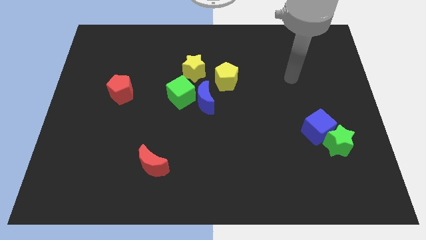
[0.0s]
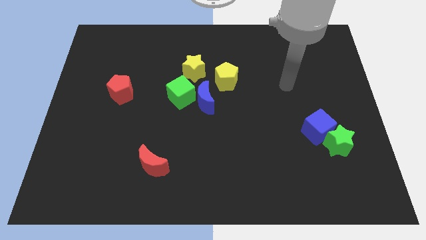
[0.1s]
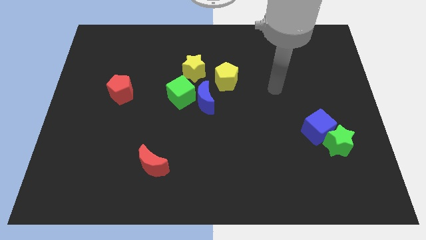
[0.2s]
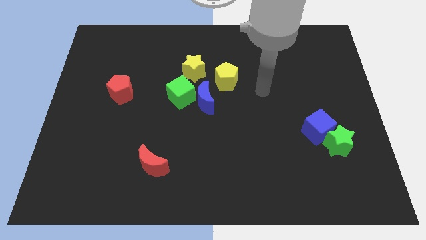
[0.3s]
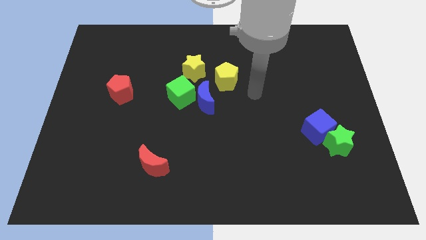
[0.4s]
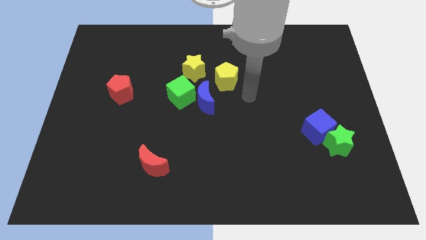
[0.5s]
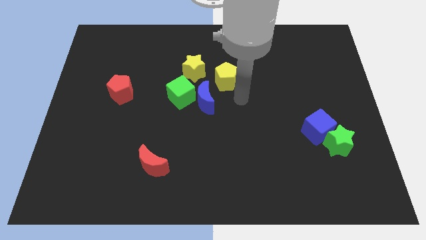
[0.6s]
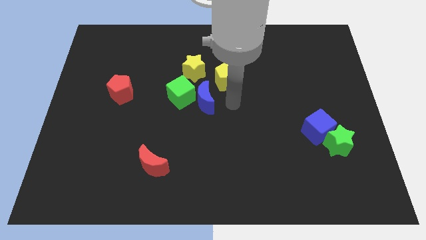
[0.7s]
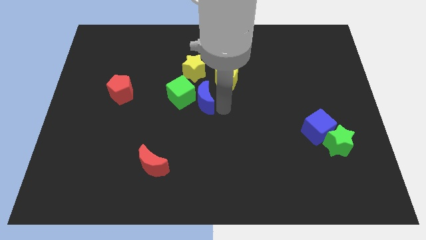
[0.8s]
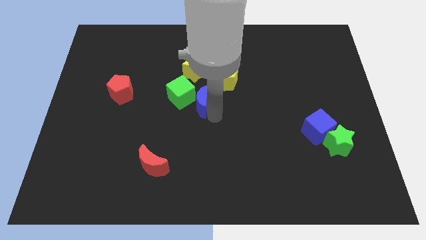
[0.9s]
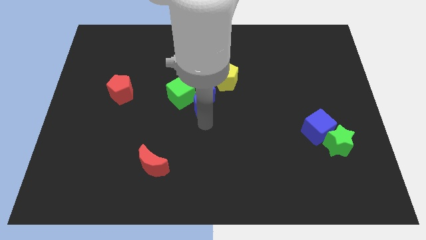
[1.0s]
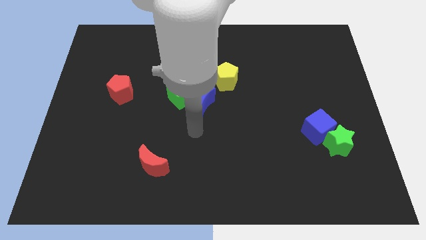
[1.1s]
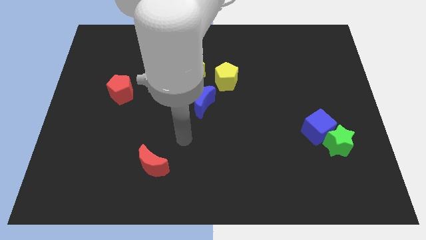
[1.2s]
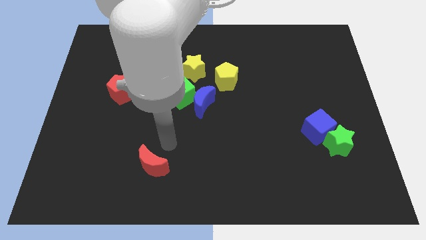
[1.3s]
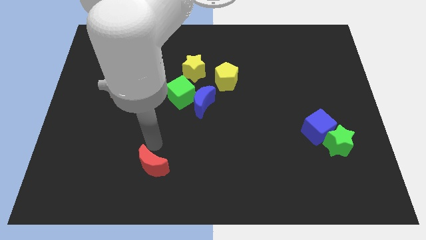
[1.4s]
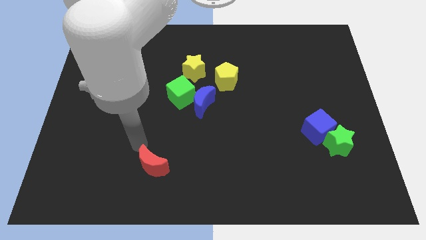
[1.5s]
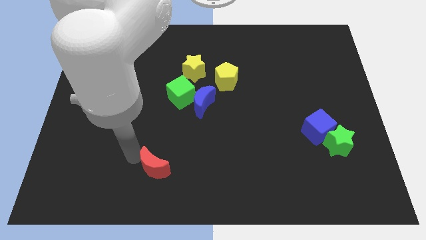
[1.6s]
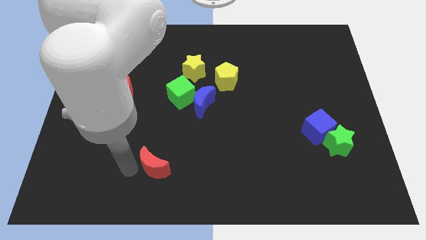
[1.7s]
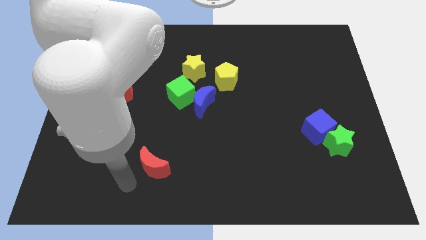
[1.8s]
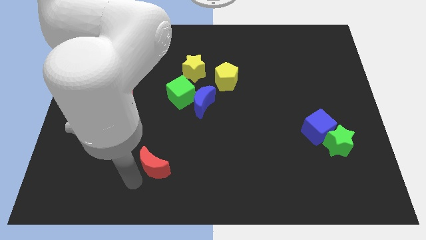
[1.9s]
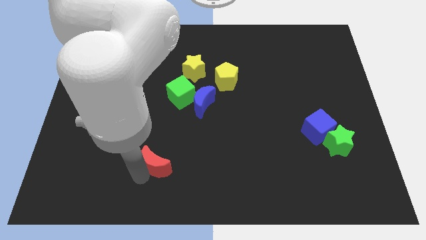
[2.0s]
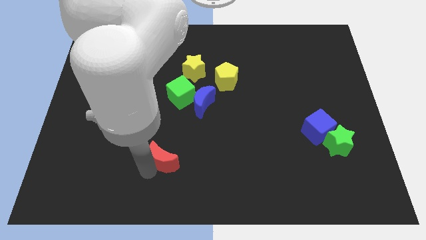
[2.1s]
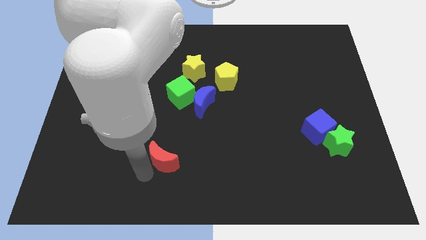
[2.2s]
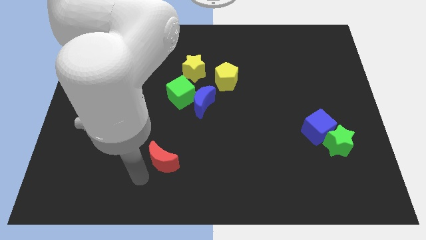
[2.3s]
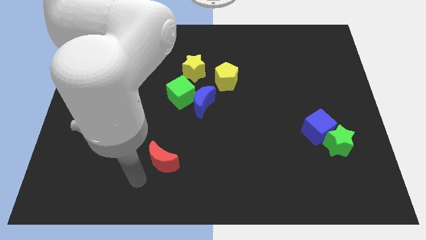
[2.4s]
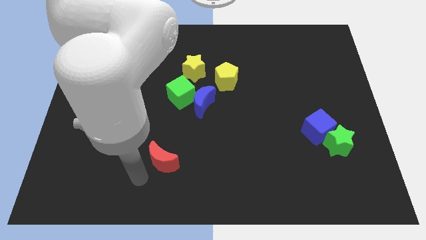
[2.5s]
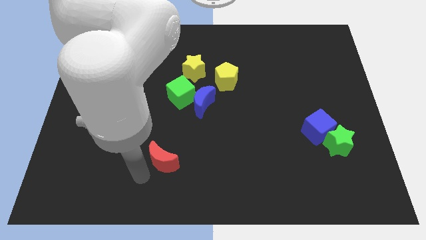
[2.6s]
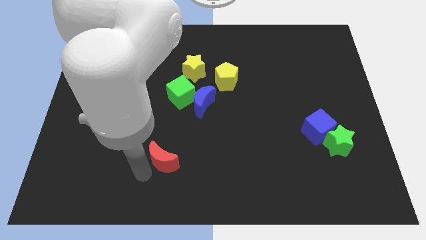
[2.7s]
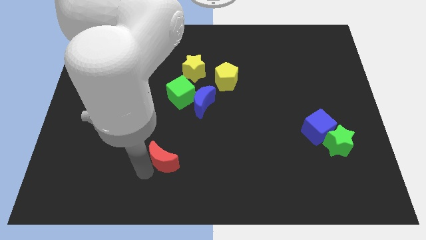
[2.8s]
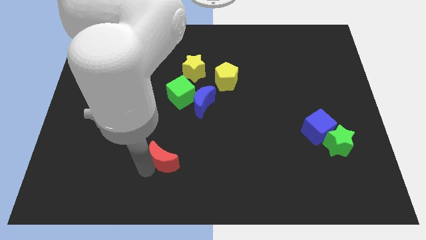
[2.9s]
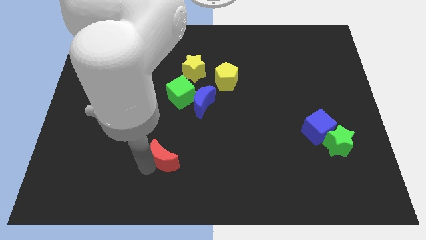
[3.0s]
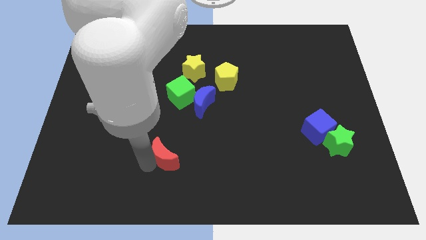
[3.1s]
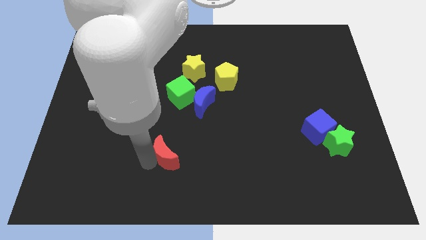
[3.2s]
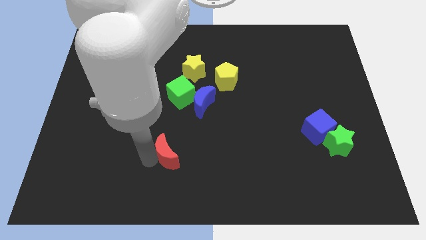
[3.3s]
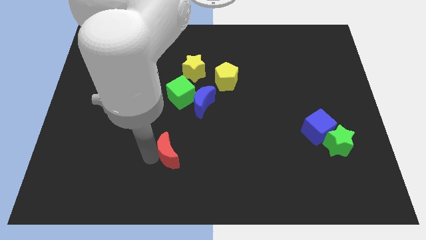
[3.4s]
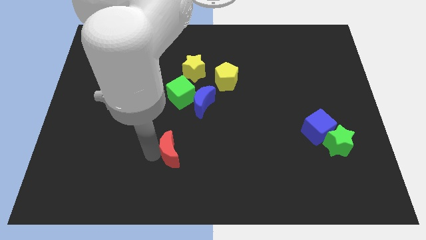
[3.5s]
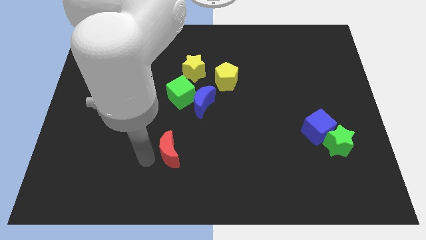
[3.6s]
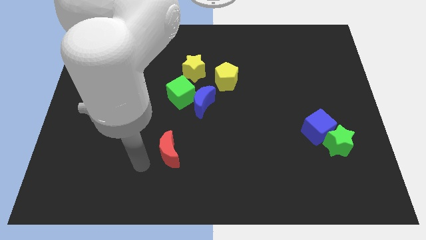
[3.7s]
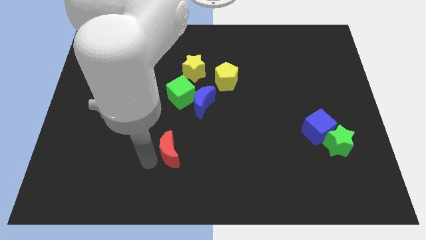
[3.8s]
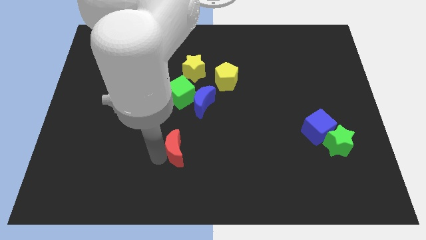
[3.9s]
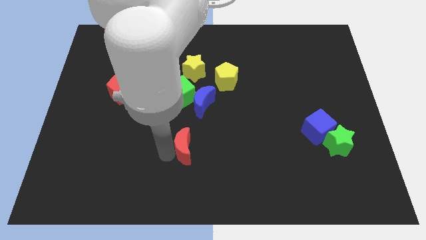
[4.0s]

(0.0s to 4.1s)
slightly move the red moon upwards and to the right

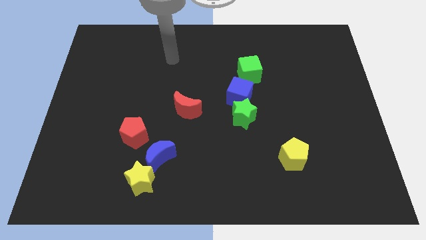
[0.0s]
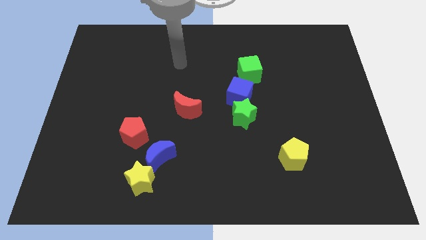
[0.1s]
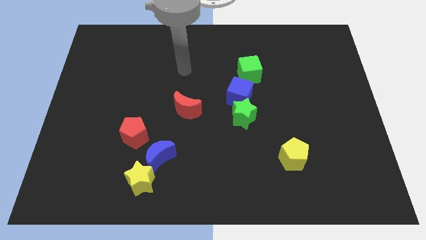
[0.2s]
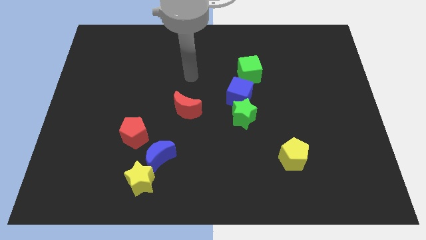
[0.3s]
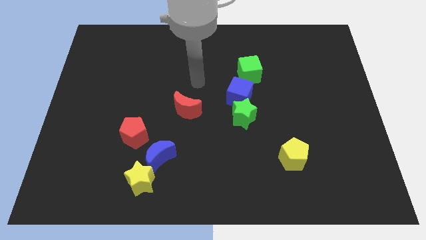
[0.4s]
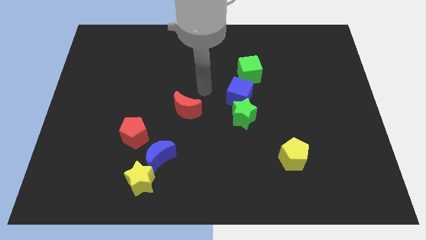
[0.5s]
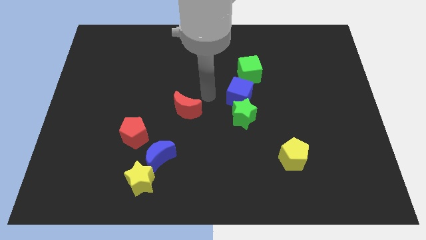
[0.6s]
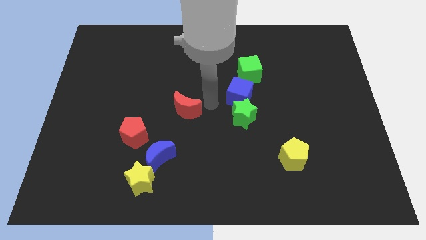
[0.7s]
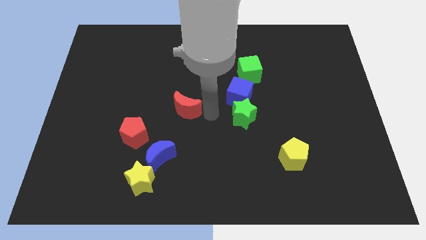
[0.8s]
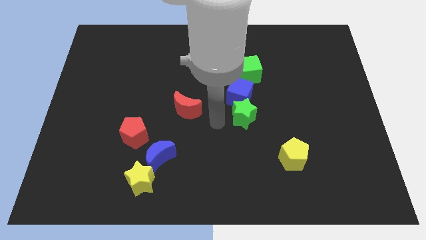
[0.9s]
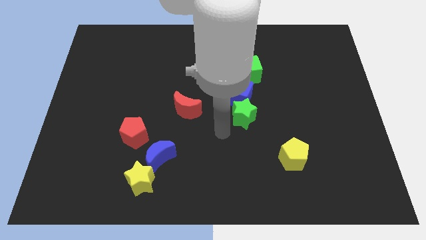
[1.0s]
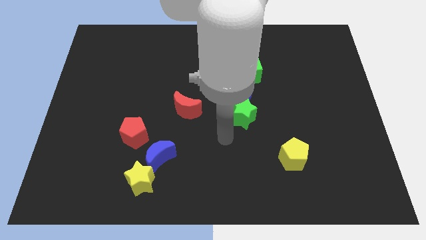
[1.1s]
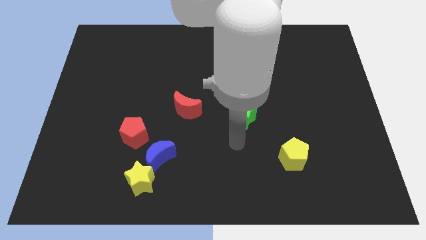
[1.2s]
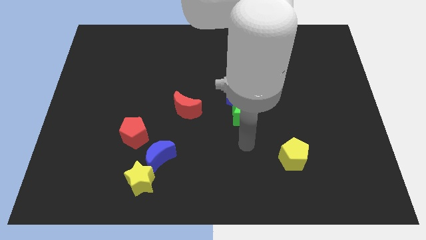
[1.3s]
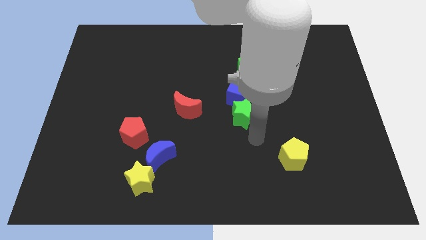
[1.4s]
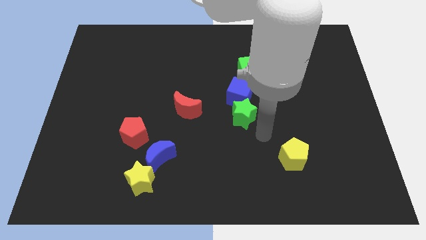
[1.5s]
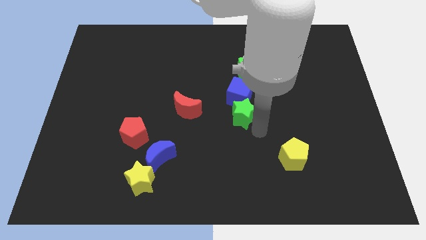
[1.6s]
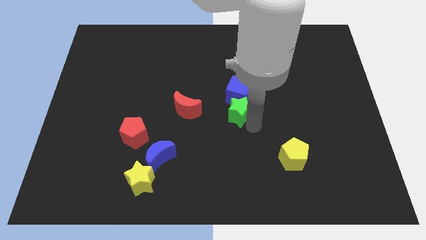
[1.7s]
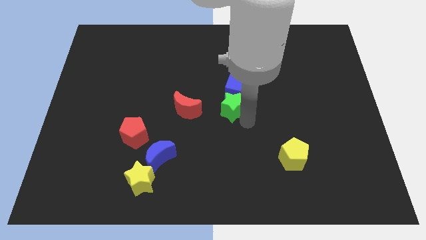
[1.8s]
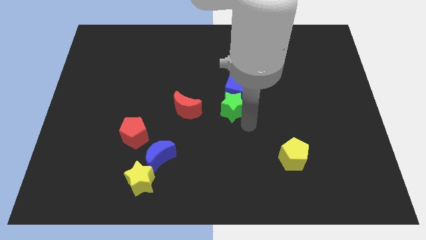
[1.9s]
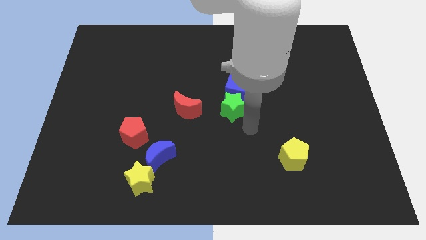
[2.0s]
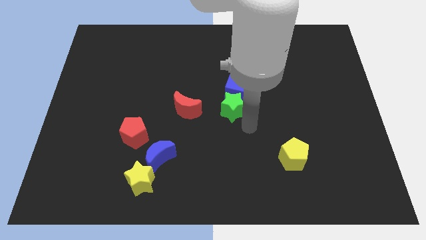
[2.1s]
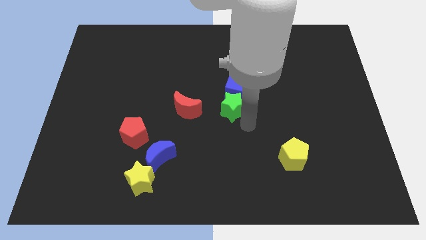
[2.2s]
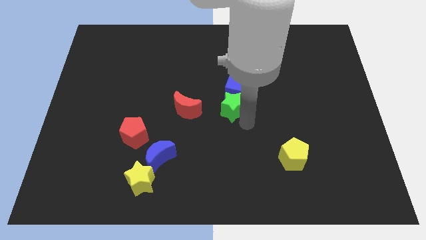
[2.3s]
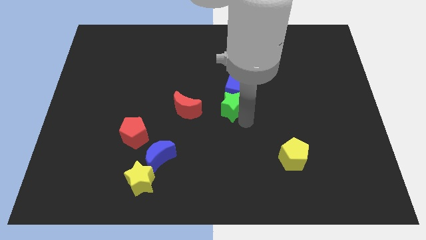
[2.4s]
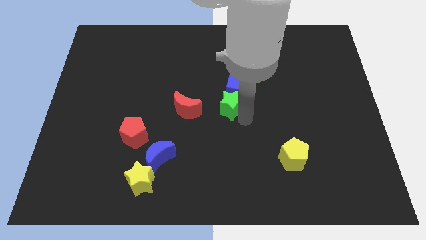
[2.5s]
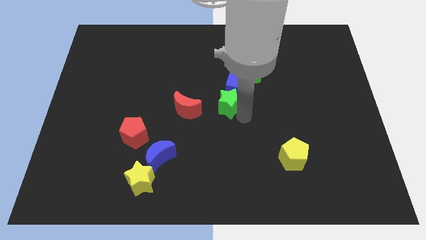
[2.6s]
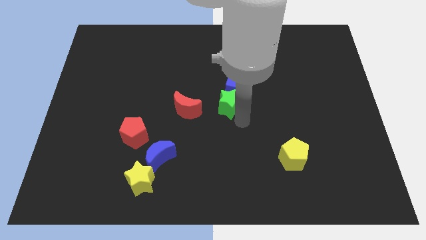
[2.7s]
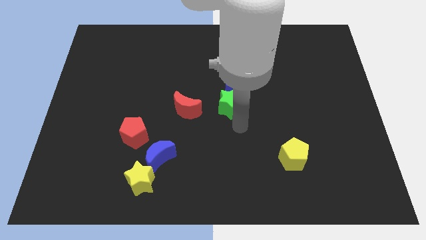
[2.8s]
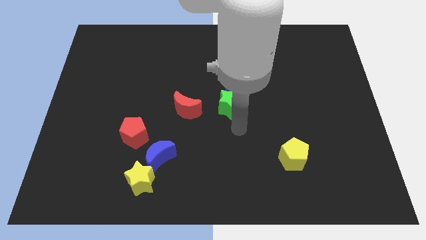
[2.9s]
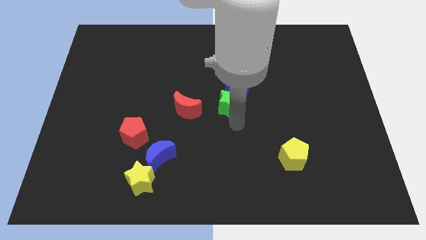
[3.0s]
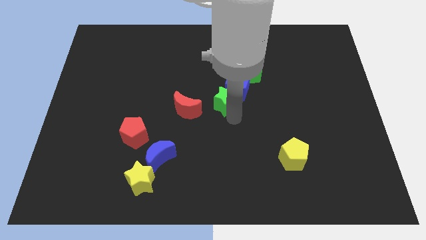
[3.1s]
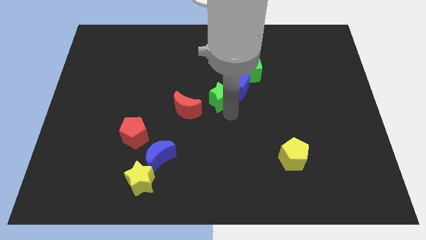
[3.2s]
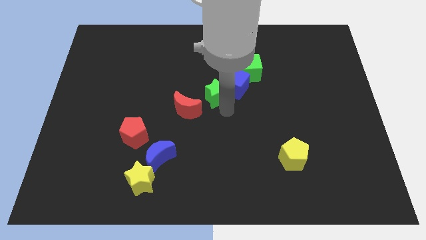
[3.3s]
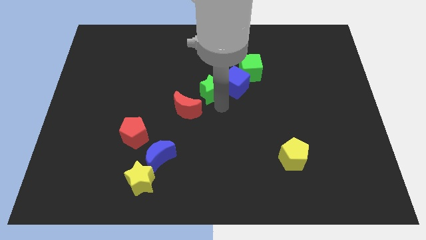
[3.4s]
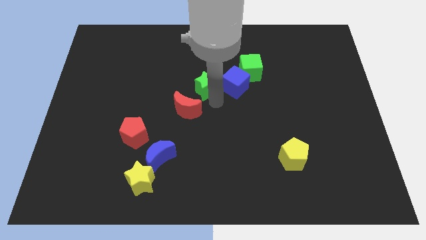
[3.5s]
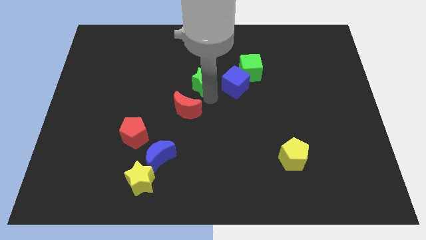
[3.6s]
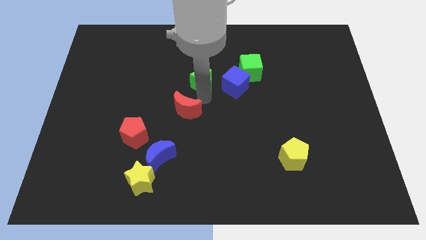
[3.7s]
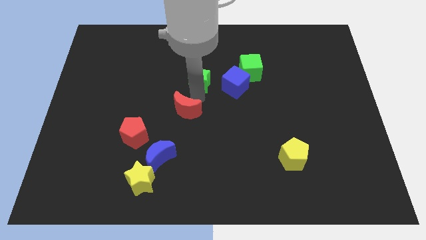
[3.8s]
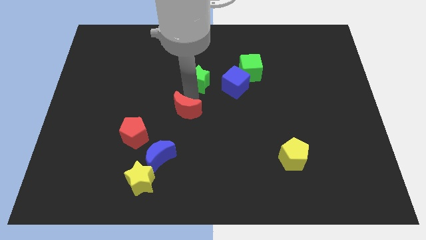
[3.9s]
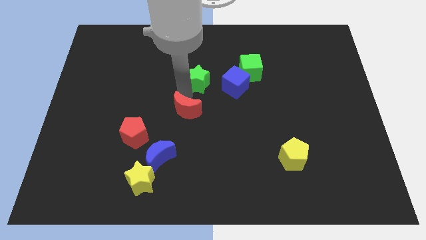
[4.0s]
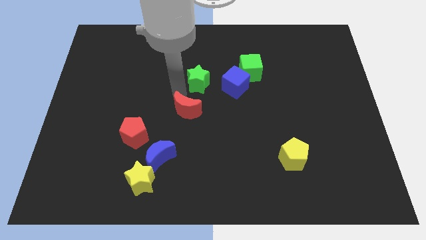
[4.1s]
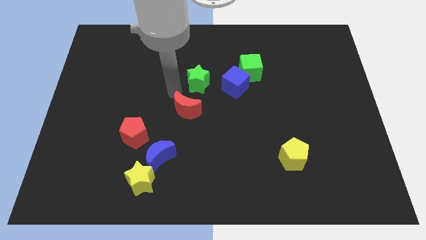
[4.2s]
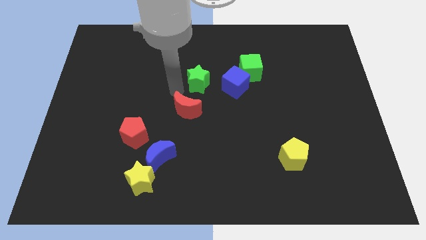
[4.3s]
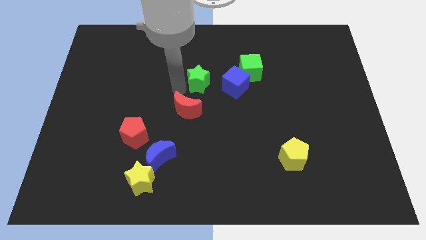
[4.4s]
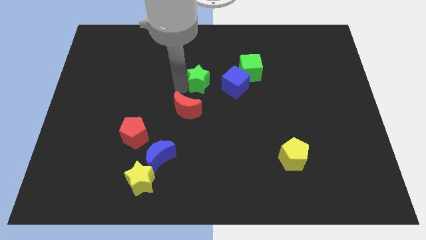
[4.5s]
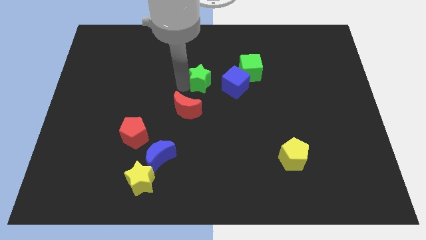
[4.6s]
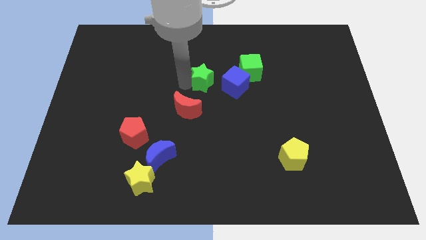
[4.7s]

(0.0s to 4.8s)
slightly slide the green star upwards
